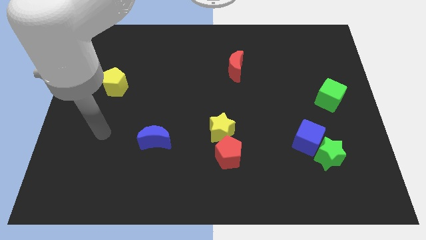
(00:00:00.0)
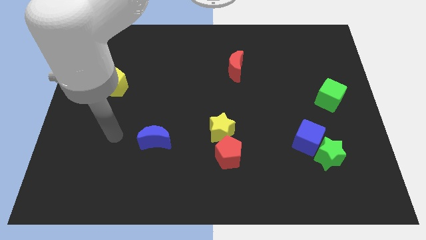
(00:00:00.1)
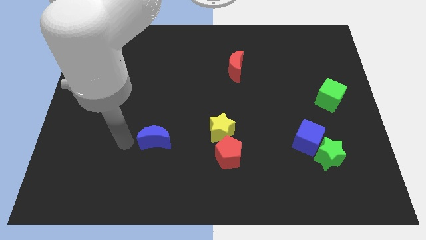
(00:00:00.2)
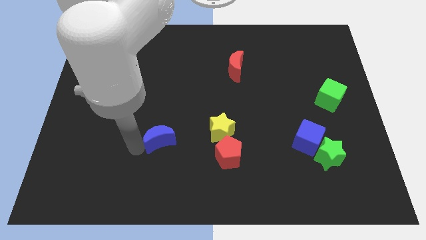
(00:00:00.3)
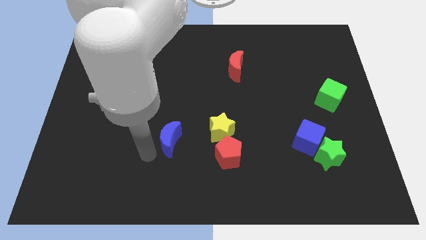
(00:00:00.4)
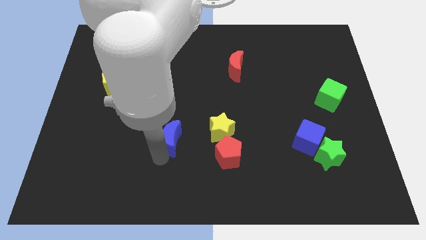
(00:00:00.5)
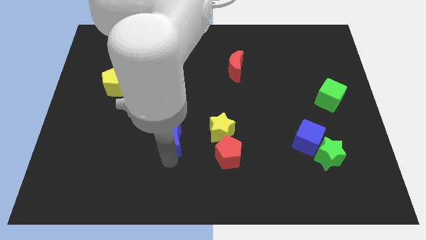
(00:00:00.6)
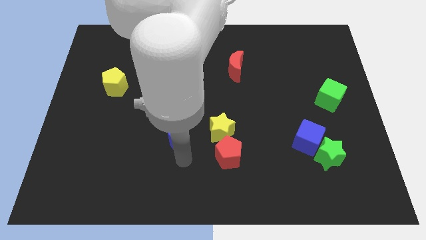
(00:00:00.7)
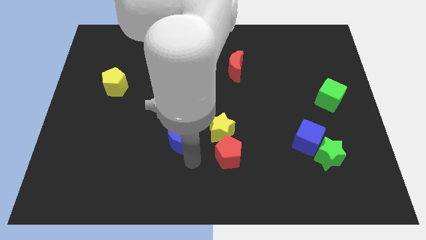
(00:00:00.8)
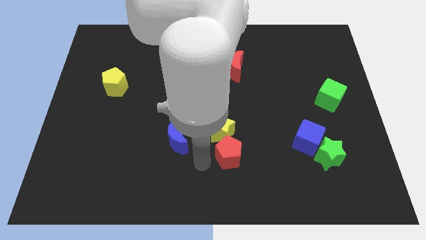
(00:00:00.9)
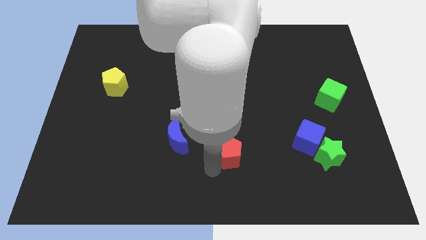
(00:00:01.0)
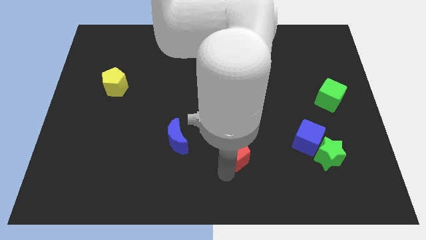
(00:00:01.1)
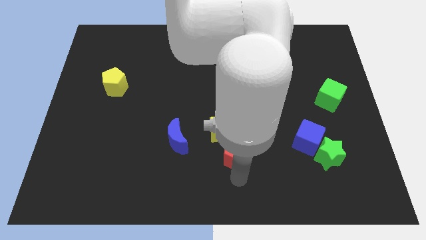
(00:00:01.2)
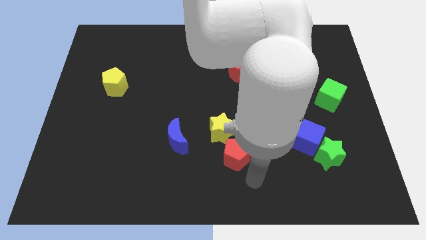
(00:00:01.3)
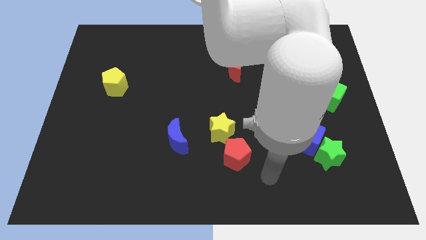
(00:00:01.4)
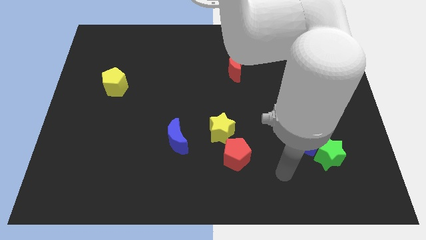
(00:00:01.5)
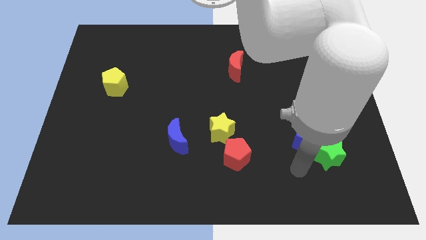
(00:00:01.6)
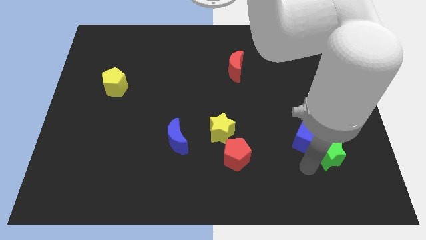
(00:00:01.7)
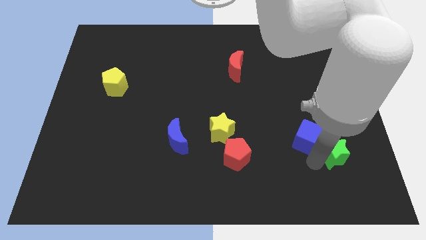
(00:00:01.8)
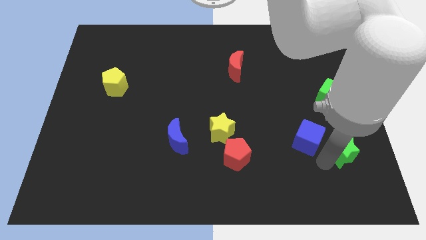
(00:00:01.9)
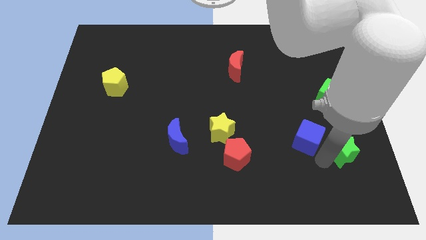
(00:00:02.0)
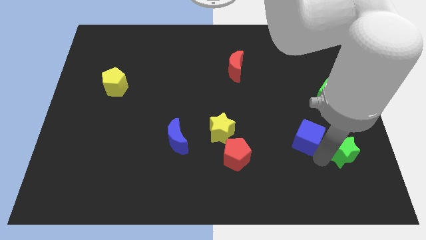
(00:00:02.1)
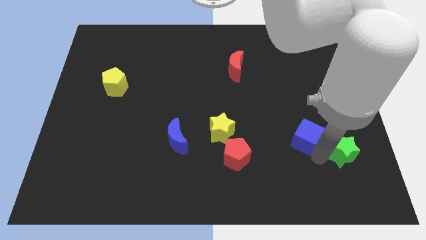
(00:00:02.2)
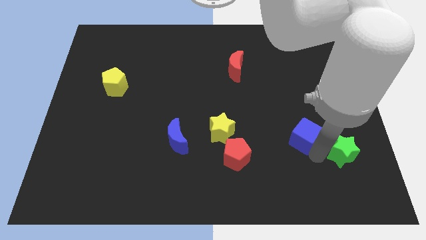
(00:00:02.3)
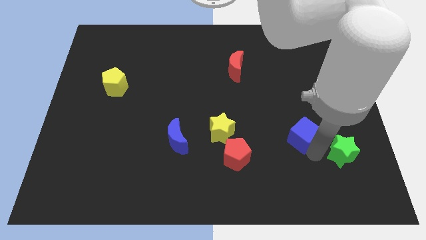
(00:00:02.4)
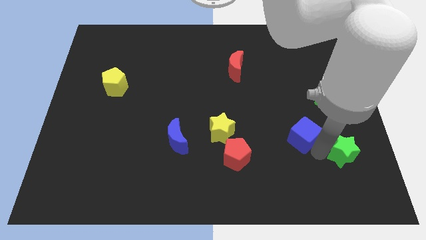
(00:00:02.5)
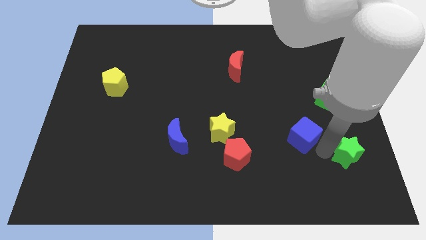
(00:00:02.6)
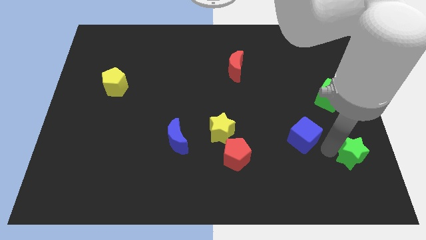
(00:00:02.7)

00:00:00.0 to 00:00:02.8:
pull the blue cube apart from the green star

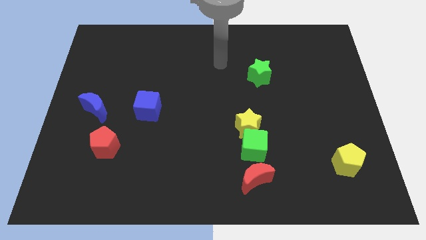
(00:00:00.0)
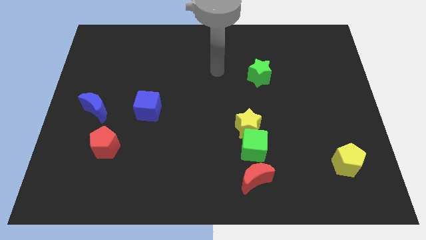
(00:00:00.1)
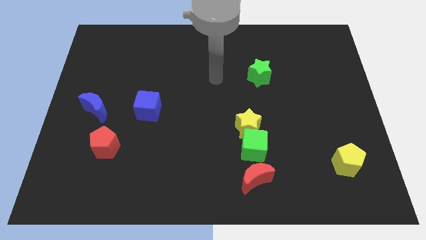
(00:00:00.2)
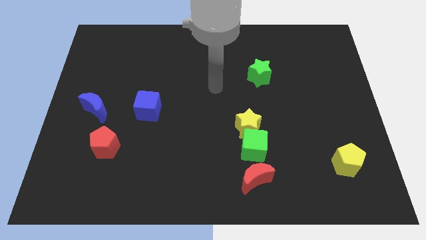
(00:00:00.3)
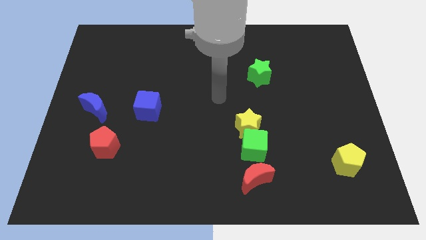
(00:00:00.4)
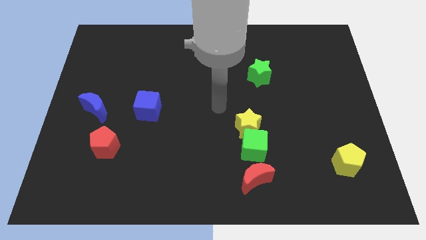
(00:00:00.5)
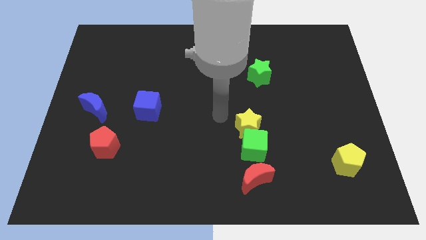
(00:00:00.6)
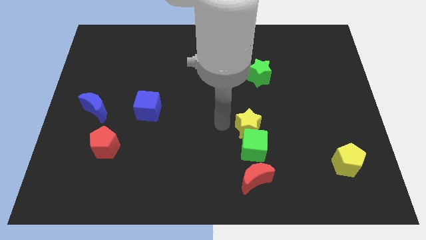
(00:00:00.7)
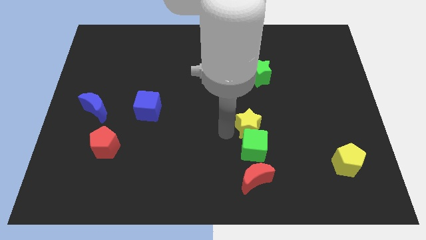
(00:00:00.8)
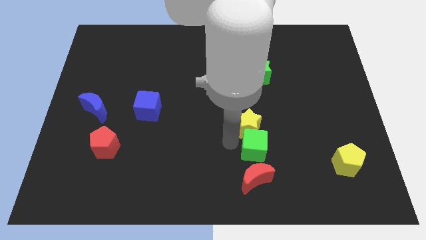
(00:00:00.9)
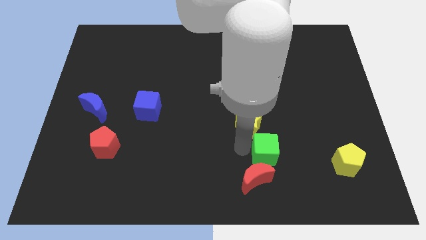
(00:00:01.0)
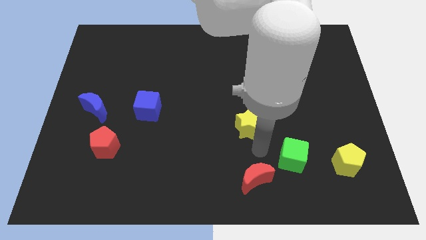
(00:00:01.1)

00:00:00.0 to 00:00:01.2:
separate the yellow star from the green cube

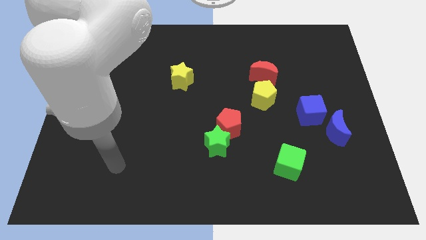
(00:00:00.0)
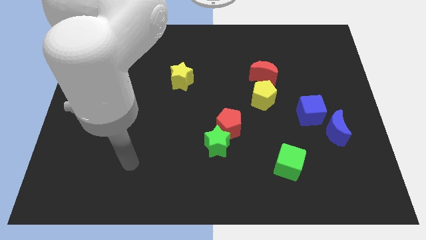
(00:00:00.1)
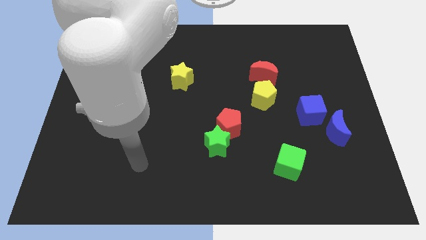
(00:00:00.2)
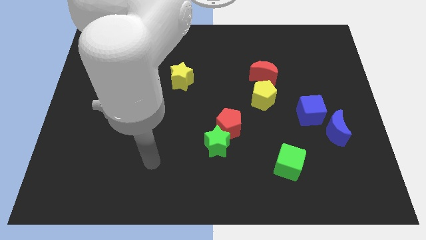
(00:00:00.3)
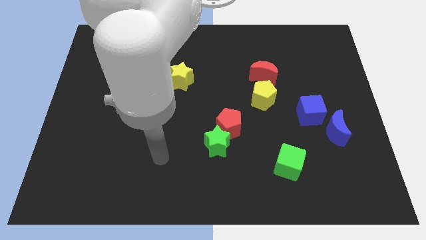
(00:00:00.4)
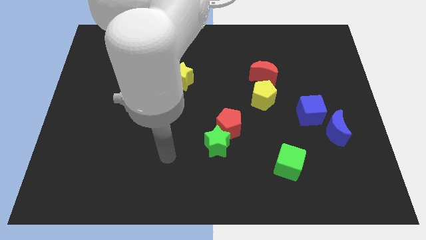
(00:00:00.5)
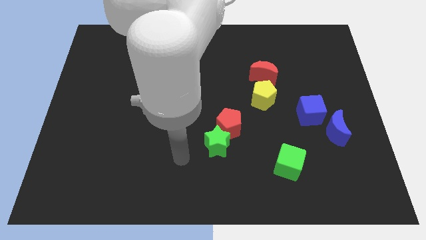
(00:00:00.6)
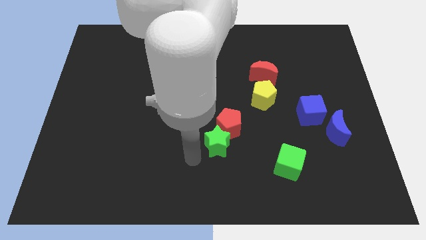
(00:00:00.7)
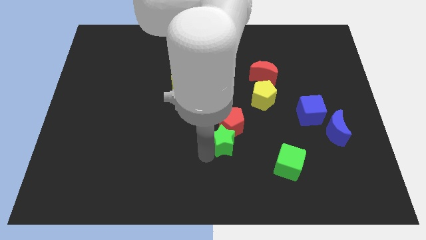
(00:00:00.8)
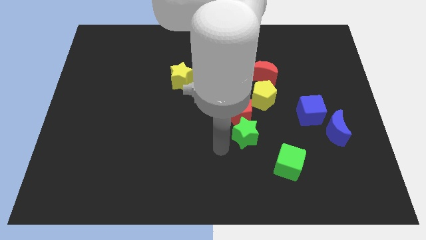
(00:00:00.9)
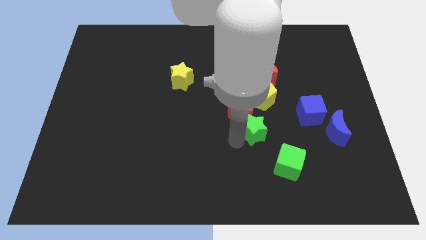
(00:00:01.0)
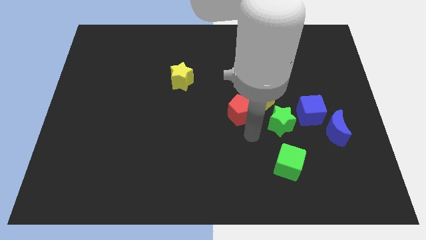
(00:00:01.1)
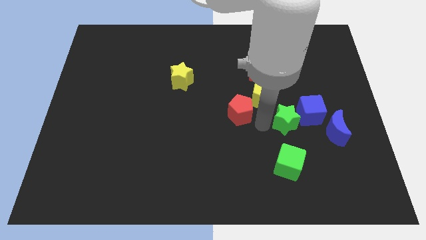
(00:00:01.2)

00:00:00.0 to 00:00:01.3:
separate the red pentagon from the green star

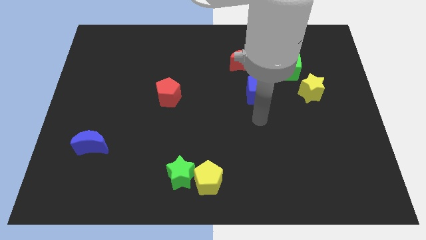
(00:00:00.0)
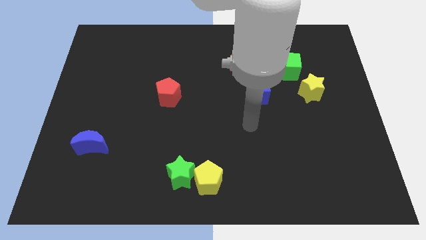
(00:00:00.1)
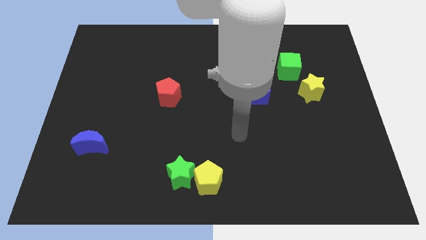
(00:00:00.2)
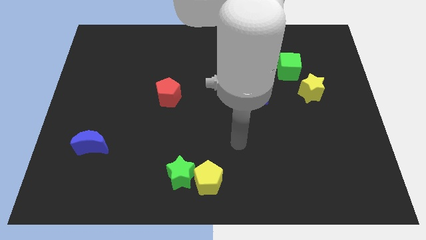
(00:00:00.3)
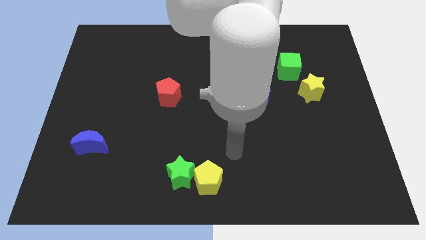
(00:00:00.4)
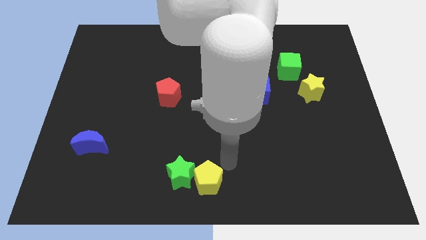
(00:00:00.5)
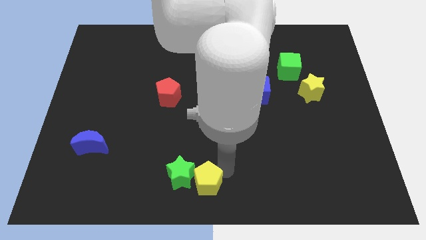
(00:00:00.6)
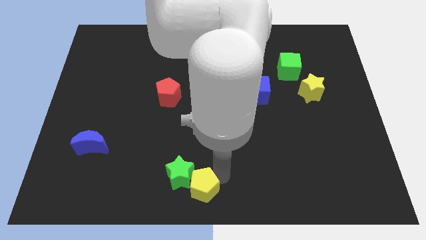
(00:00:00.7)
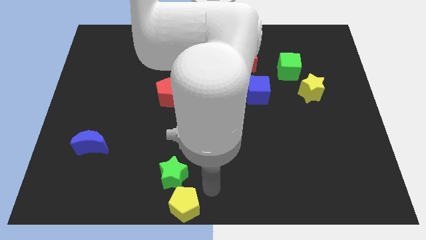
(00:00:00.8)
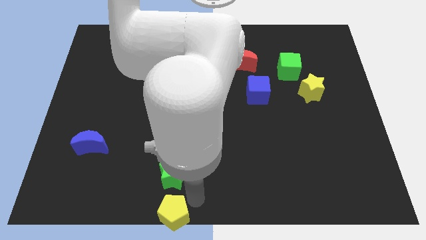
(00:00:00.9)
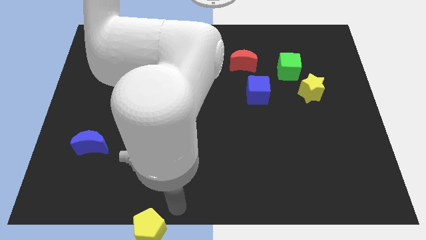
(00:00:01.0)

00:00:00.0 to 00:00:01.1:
pull the green star apart from the yellow pentagon

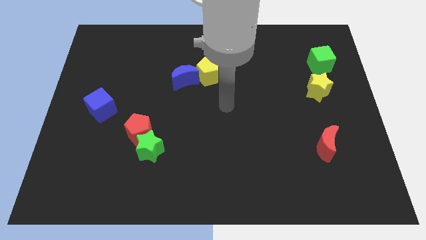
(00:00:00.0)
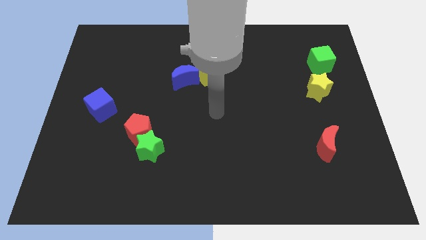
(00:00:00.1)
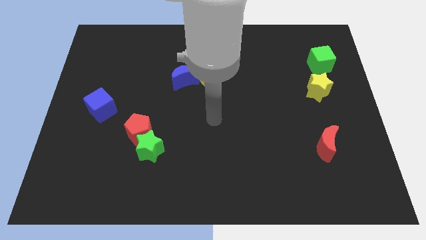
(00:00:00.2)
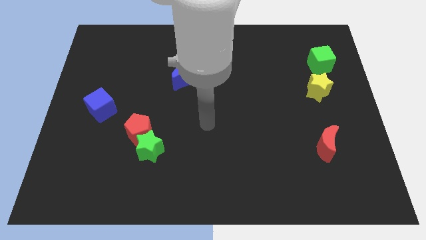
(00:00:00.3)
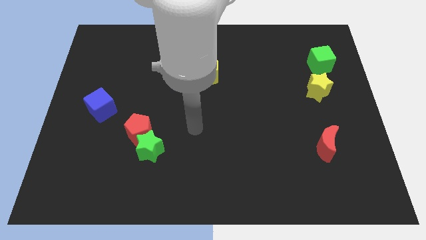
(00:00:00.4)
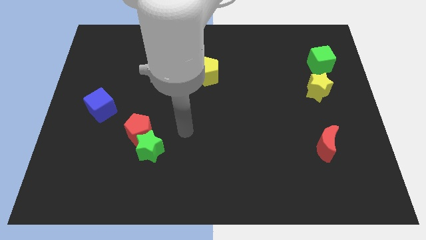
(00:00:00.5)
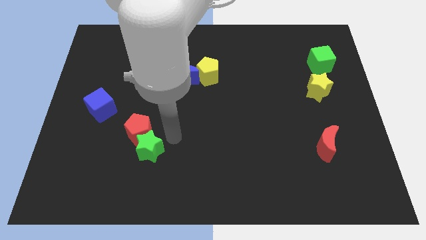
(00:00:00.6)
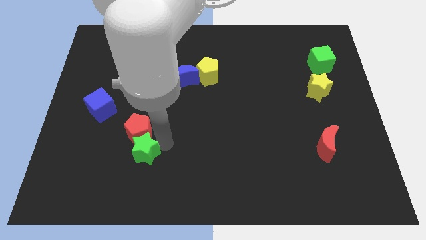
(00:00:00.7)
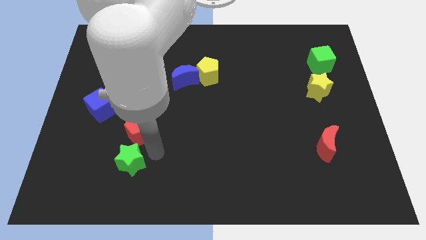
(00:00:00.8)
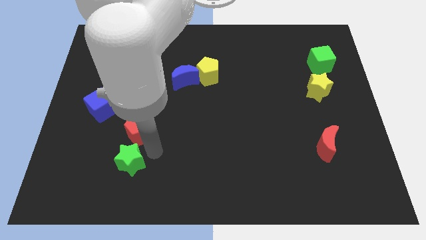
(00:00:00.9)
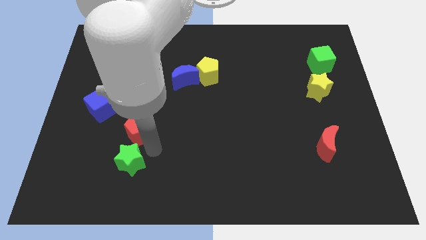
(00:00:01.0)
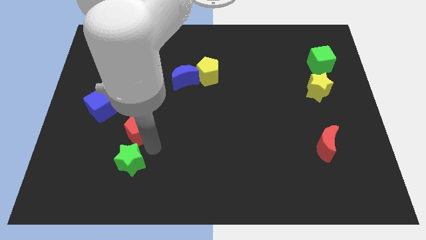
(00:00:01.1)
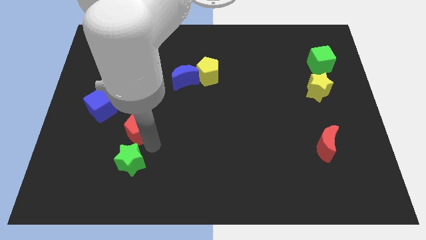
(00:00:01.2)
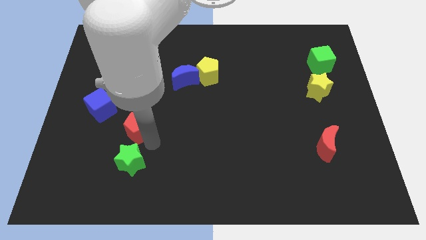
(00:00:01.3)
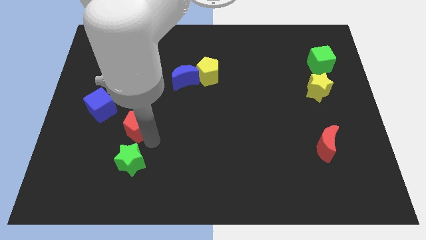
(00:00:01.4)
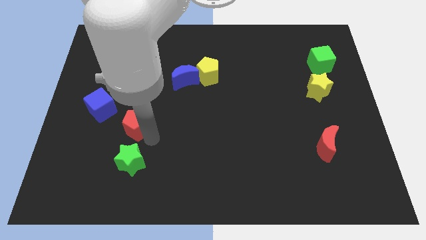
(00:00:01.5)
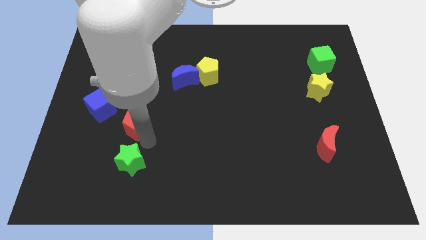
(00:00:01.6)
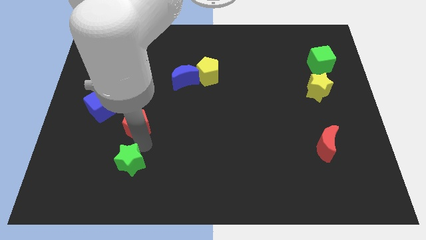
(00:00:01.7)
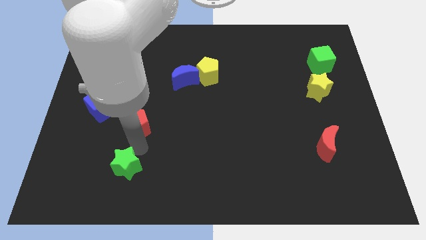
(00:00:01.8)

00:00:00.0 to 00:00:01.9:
move the red pentagon away from the green star

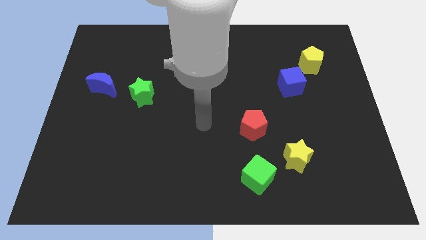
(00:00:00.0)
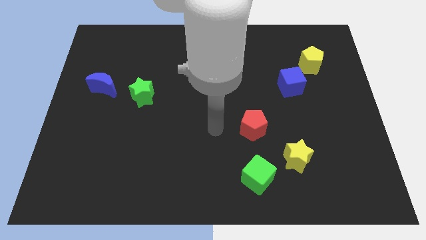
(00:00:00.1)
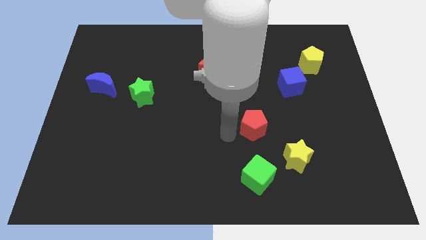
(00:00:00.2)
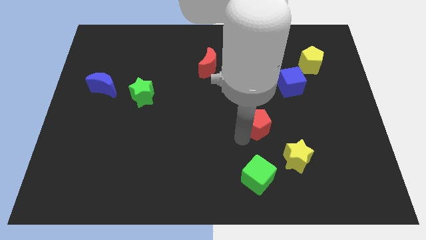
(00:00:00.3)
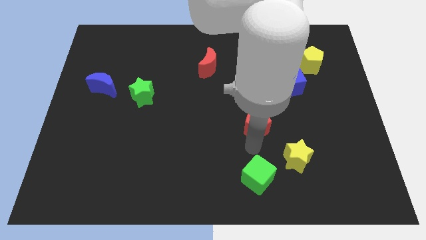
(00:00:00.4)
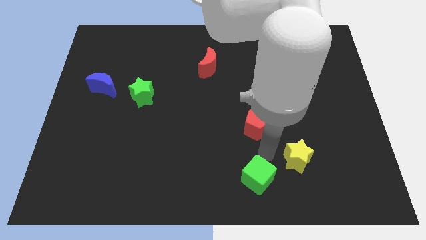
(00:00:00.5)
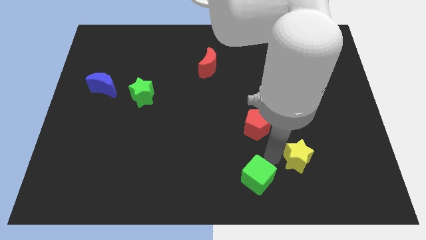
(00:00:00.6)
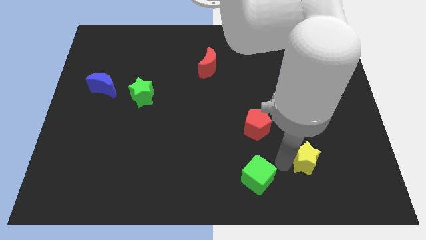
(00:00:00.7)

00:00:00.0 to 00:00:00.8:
move the green cube away from the yellow star
